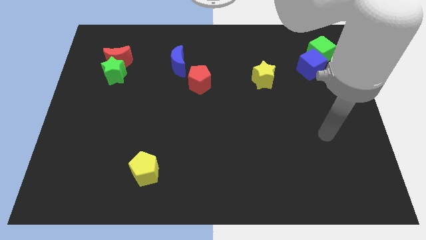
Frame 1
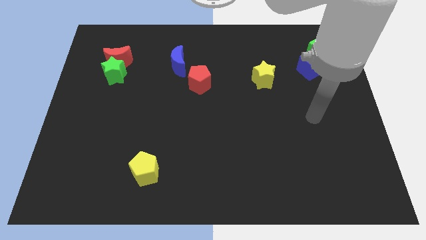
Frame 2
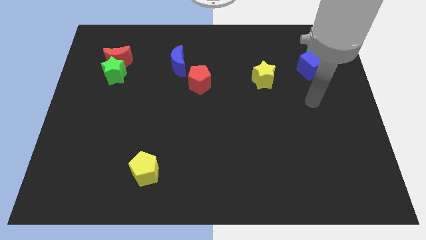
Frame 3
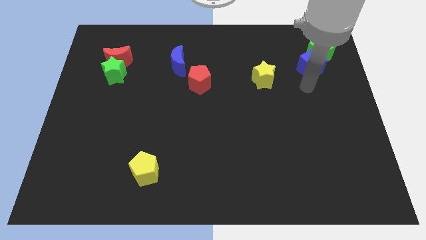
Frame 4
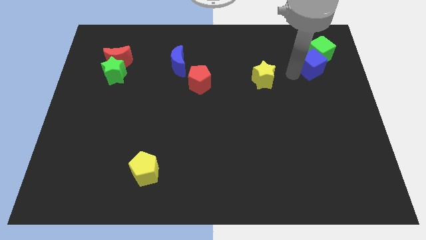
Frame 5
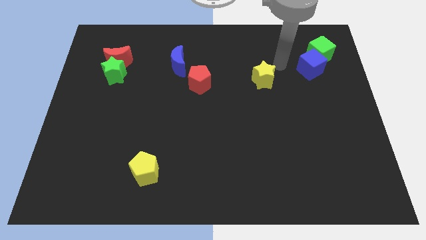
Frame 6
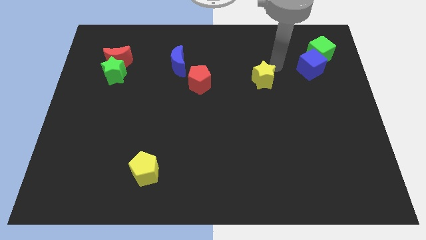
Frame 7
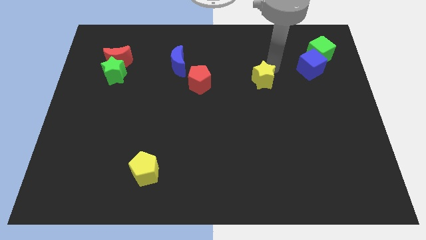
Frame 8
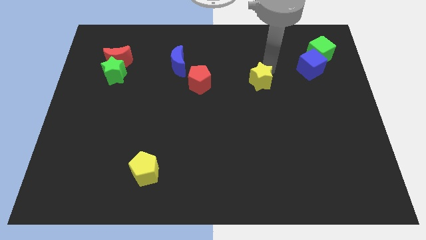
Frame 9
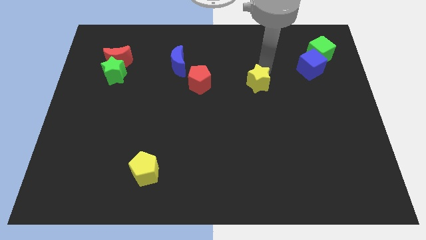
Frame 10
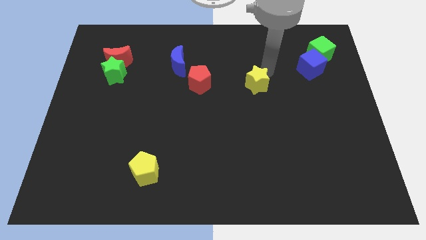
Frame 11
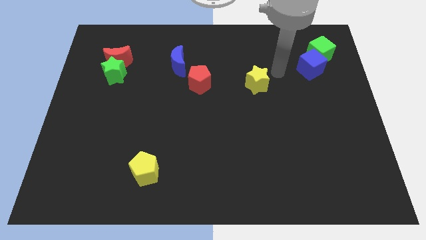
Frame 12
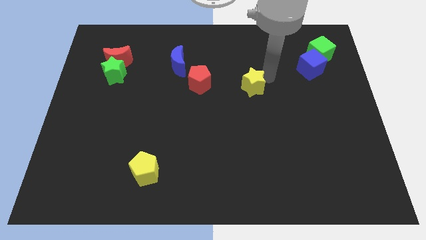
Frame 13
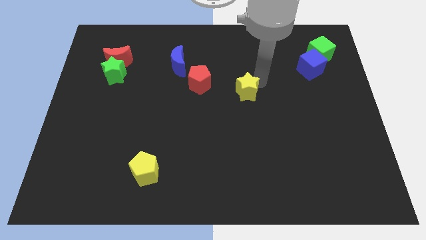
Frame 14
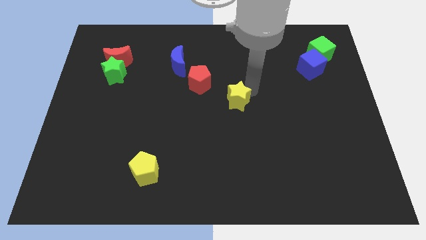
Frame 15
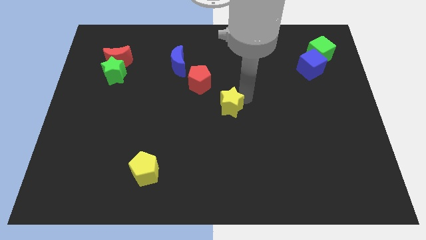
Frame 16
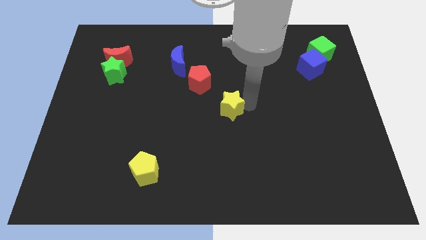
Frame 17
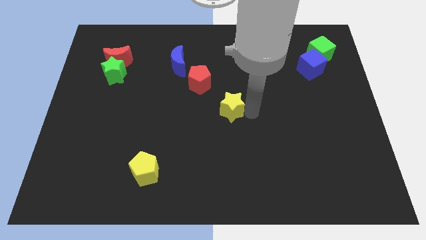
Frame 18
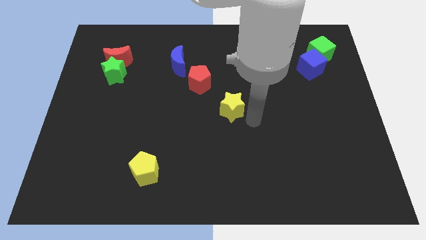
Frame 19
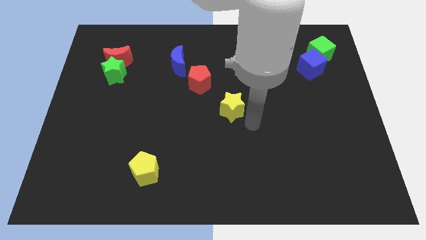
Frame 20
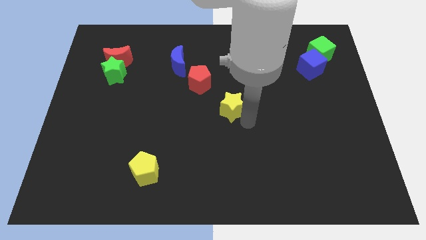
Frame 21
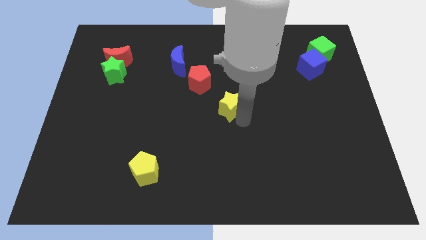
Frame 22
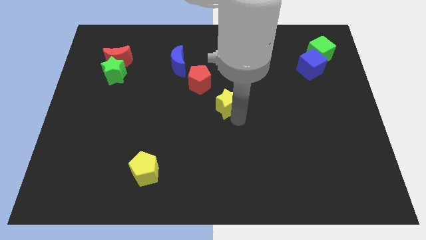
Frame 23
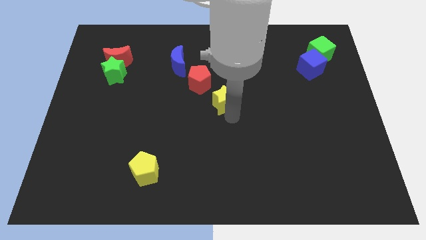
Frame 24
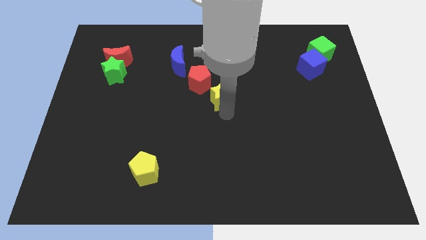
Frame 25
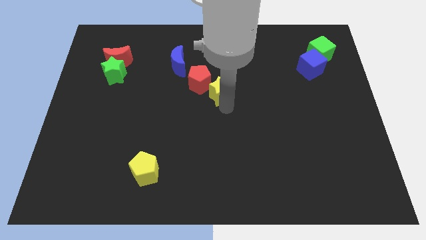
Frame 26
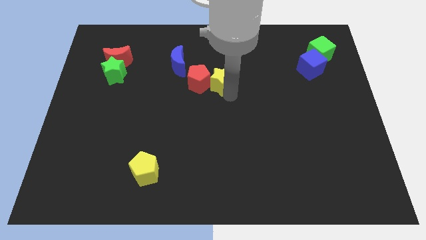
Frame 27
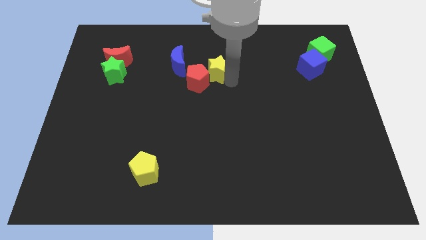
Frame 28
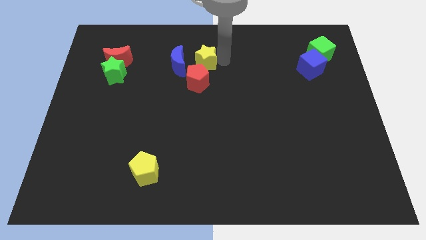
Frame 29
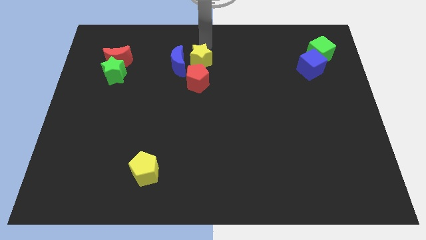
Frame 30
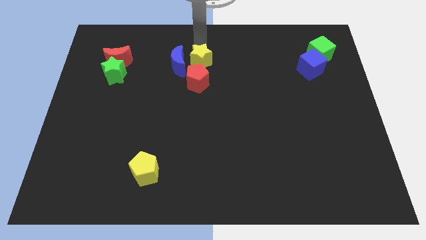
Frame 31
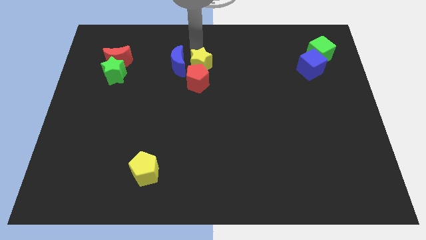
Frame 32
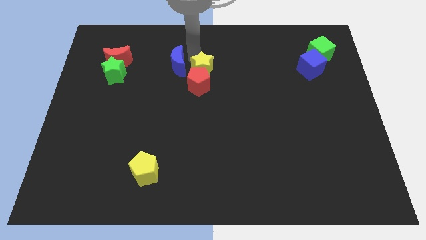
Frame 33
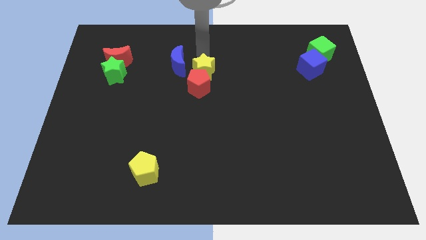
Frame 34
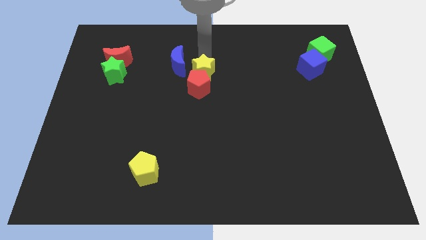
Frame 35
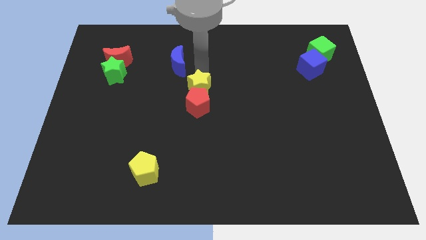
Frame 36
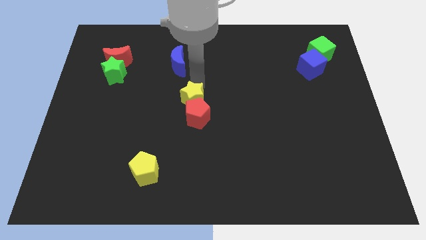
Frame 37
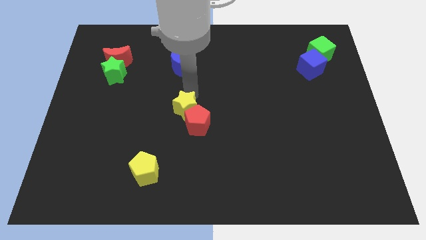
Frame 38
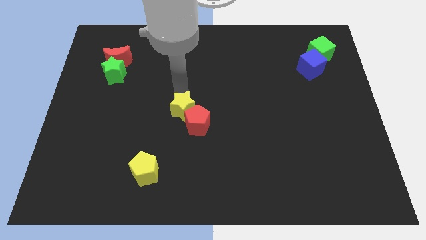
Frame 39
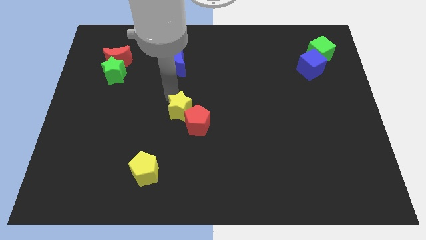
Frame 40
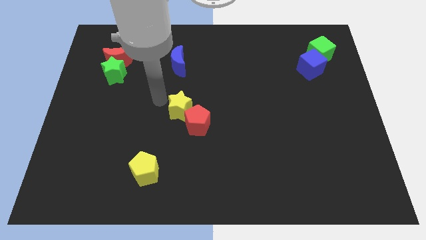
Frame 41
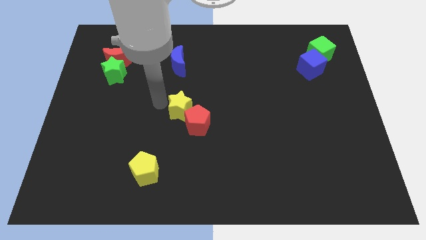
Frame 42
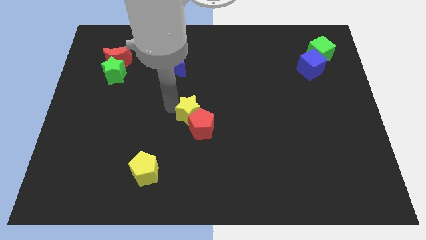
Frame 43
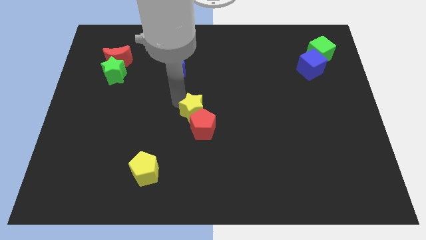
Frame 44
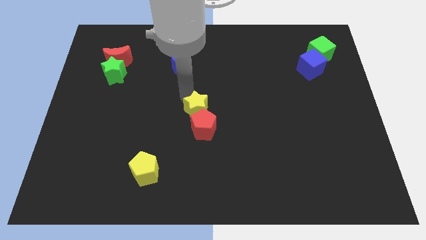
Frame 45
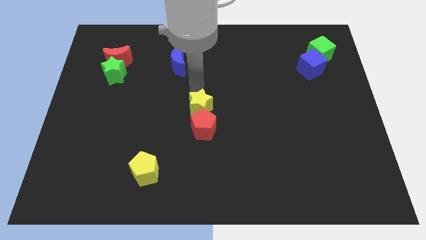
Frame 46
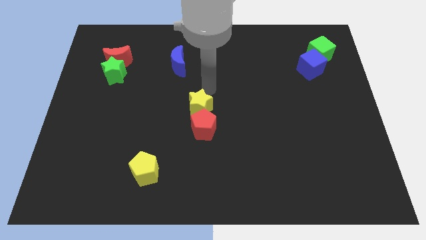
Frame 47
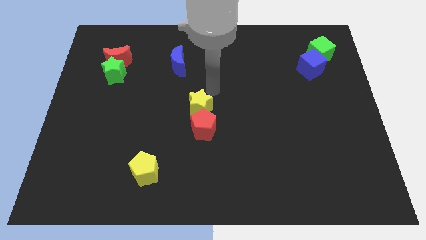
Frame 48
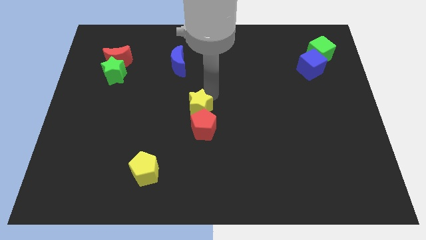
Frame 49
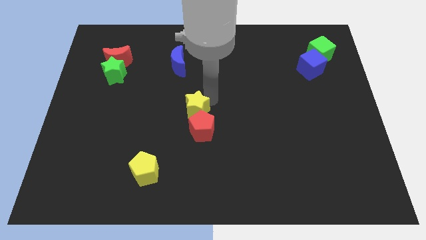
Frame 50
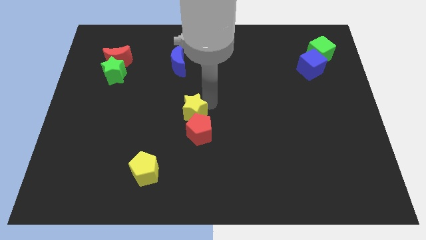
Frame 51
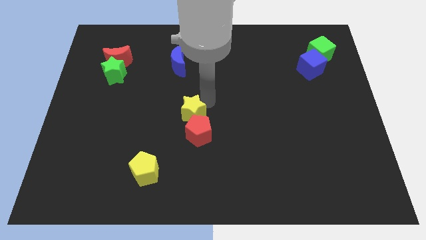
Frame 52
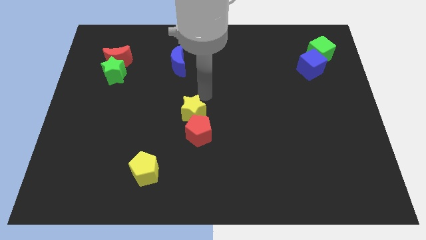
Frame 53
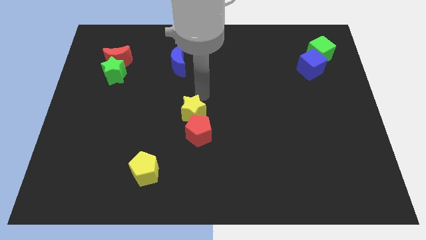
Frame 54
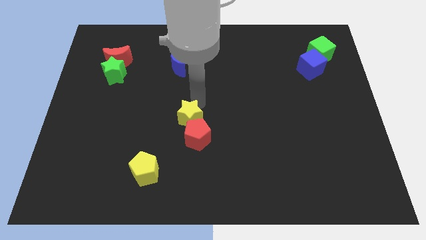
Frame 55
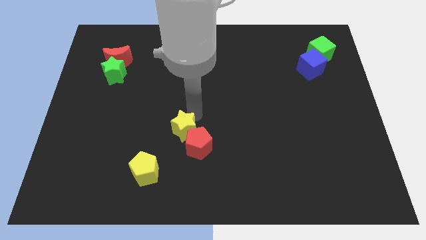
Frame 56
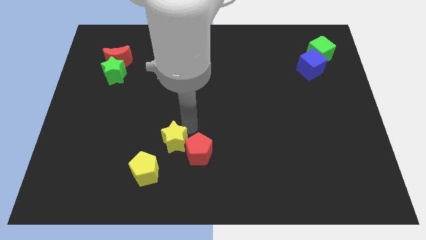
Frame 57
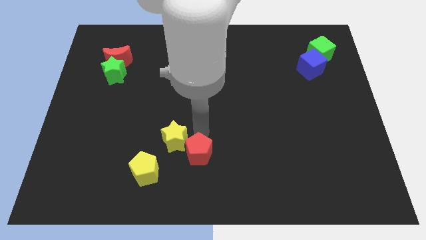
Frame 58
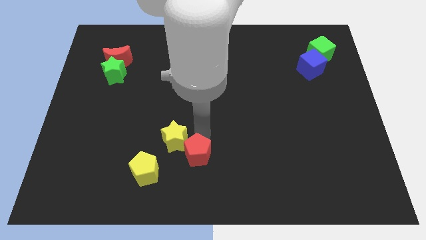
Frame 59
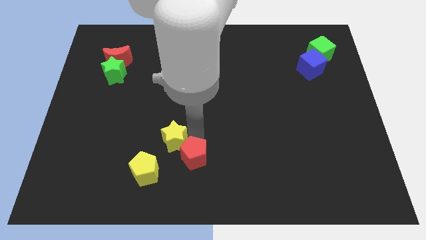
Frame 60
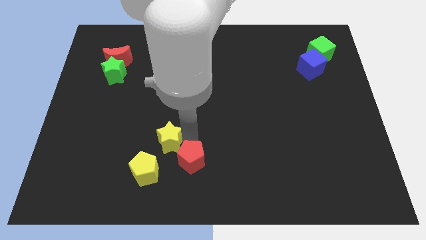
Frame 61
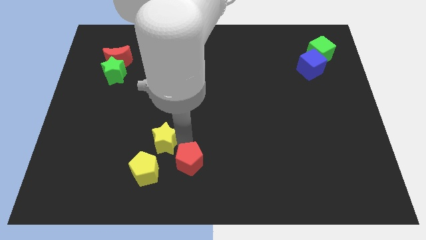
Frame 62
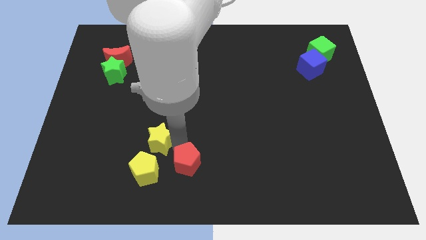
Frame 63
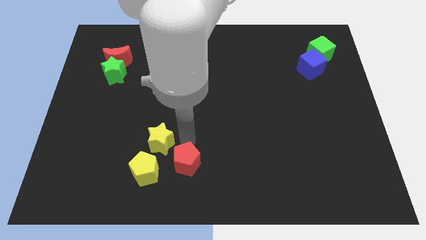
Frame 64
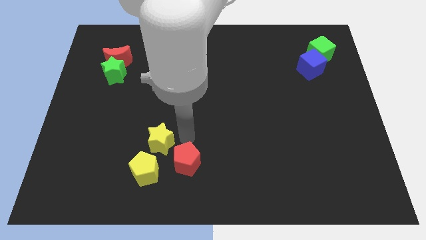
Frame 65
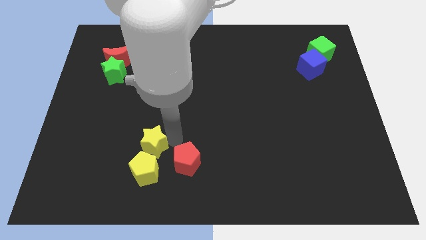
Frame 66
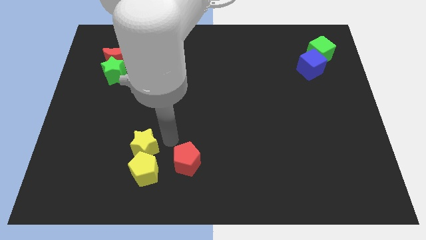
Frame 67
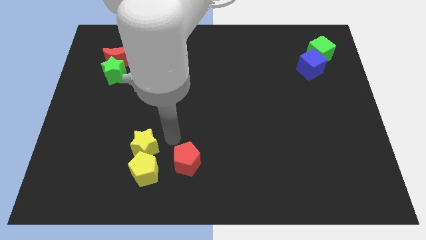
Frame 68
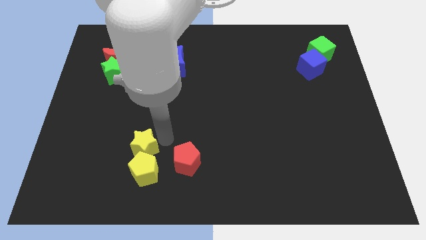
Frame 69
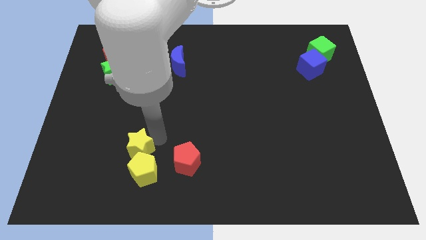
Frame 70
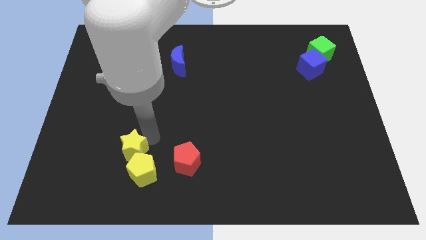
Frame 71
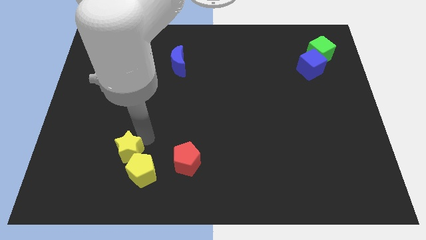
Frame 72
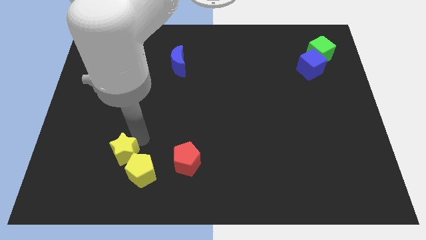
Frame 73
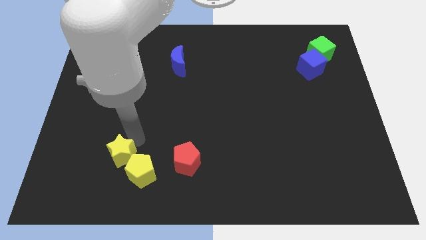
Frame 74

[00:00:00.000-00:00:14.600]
slide the yellow star to the left side of the yellow pentagon
